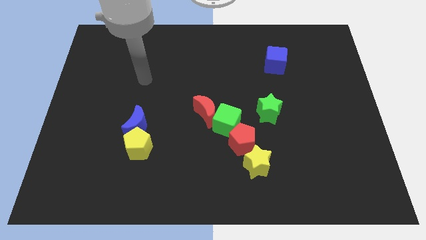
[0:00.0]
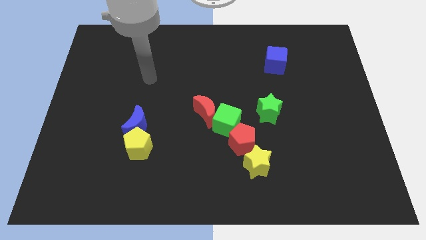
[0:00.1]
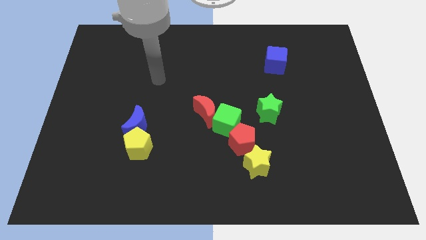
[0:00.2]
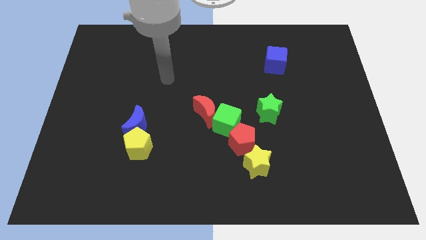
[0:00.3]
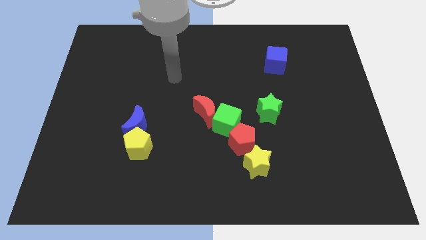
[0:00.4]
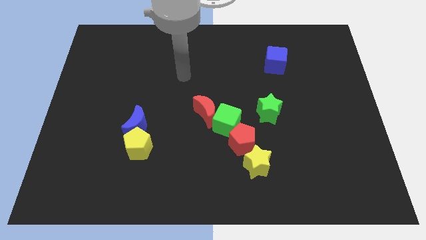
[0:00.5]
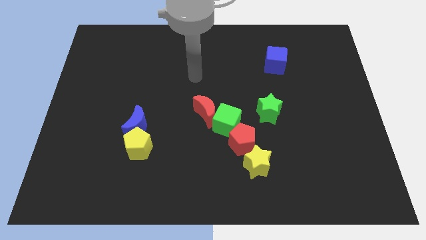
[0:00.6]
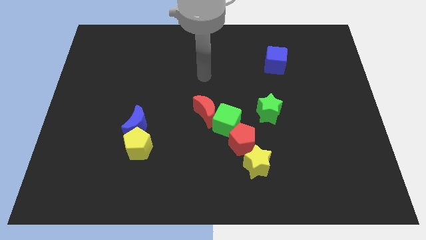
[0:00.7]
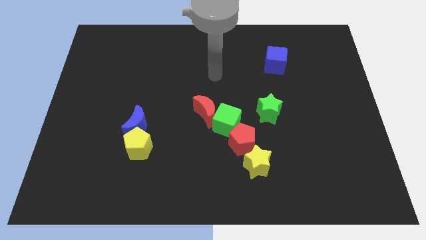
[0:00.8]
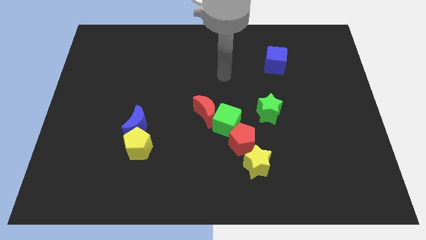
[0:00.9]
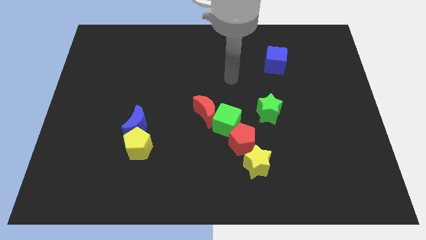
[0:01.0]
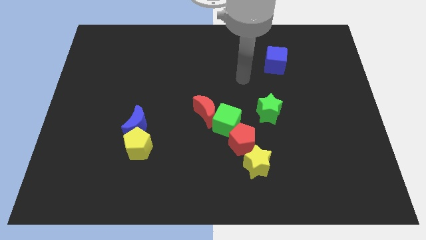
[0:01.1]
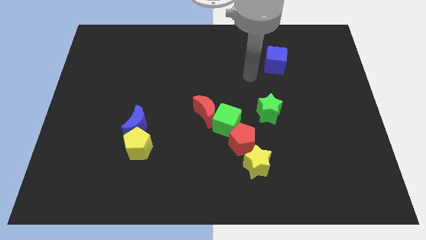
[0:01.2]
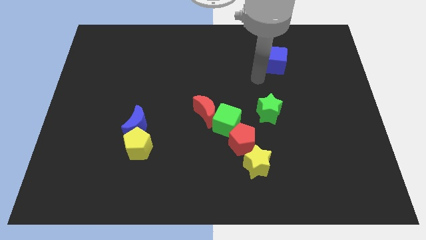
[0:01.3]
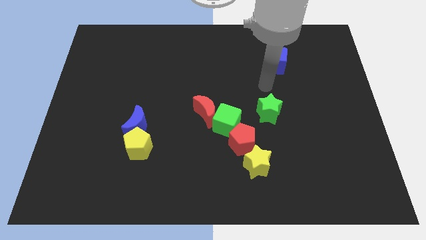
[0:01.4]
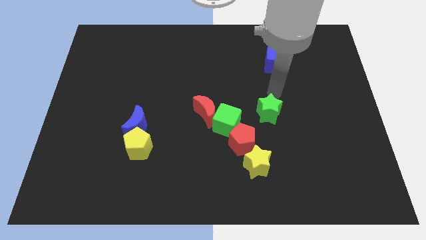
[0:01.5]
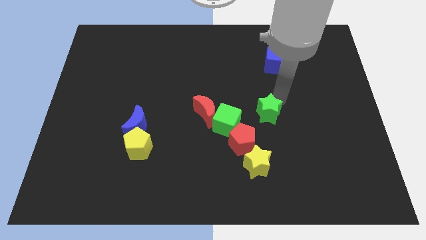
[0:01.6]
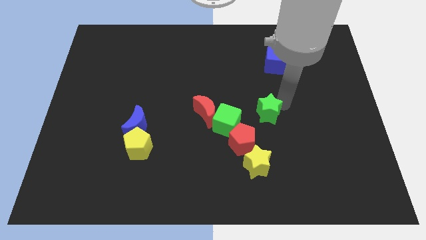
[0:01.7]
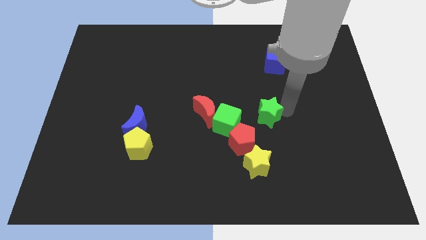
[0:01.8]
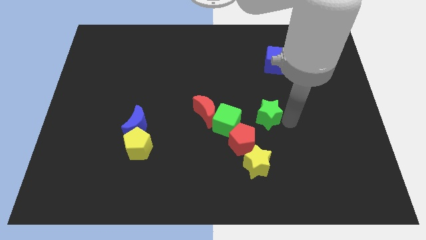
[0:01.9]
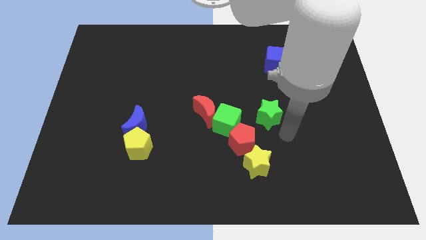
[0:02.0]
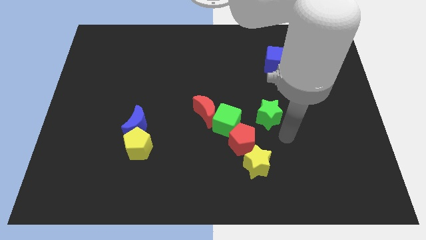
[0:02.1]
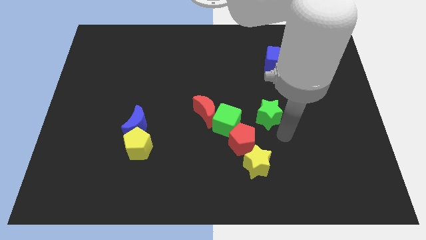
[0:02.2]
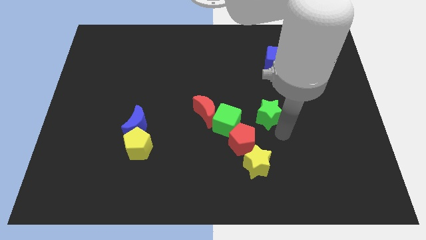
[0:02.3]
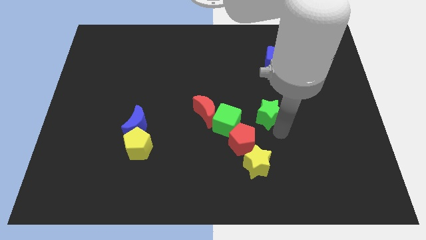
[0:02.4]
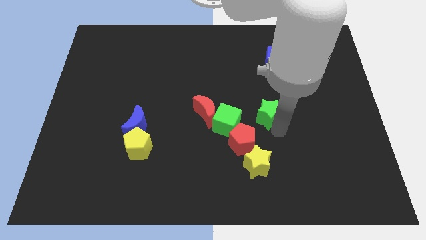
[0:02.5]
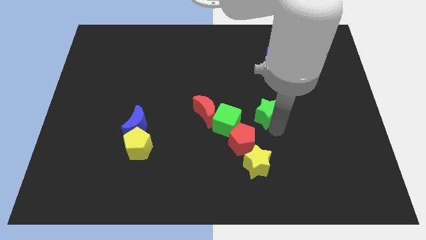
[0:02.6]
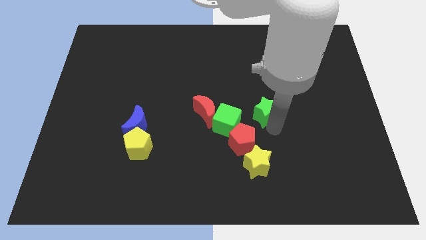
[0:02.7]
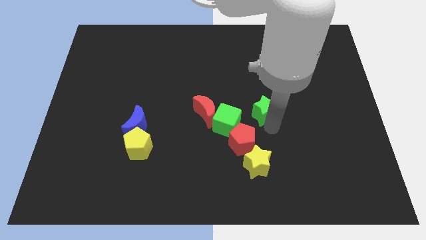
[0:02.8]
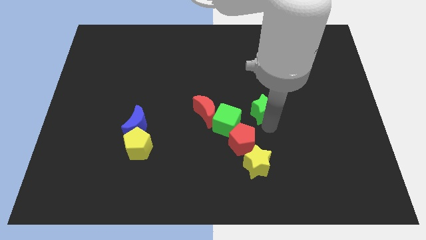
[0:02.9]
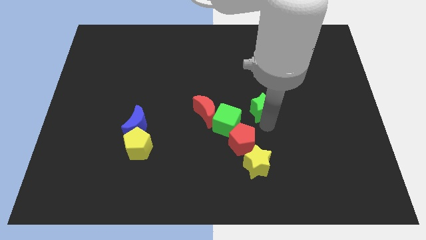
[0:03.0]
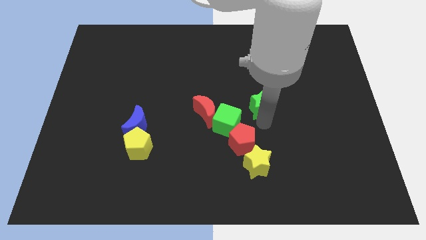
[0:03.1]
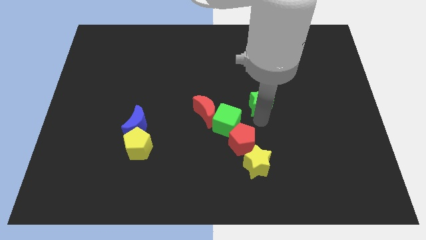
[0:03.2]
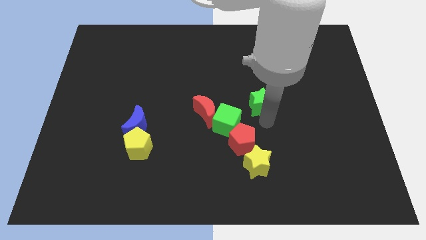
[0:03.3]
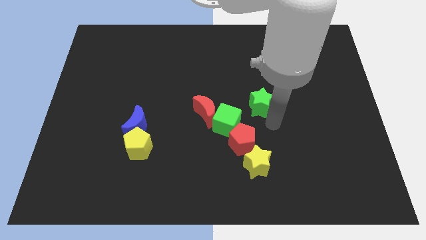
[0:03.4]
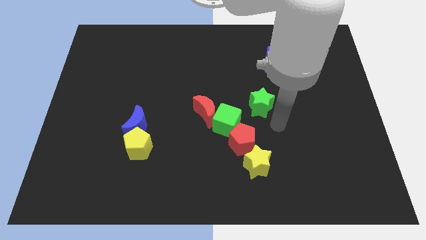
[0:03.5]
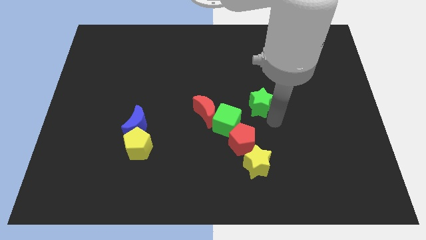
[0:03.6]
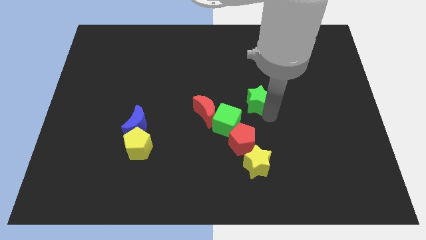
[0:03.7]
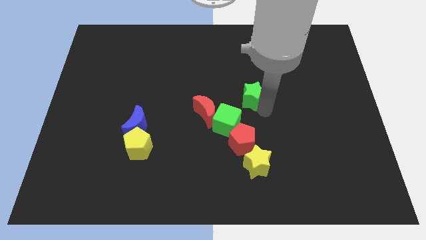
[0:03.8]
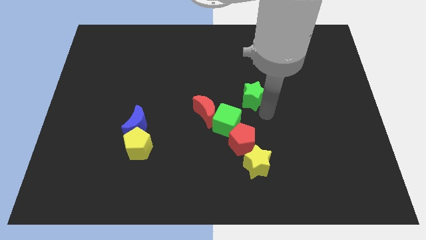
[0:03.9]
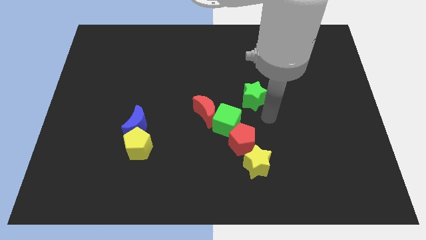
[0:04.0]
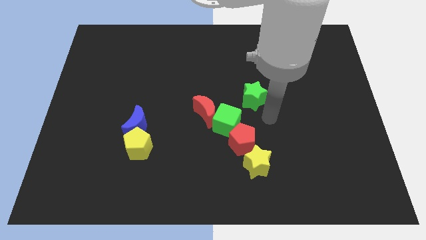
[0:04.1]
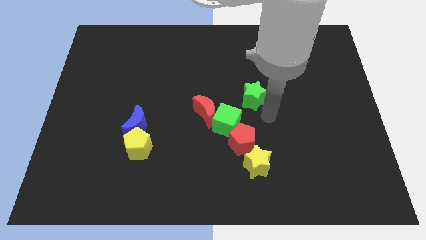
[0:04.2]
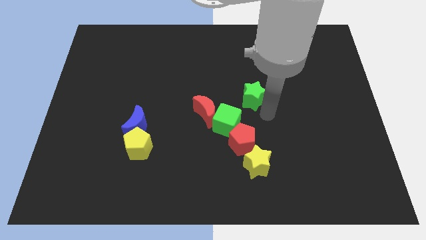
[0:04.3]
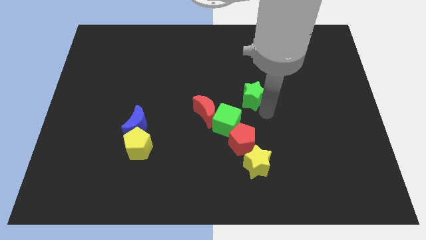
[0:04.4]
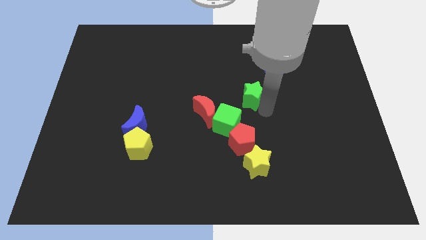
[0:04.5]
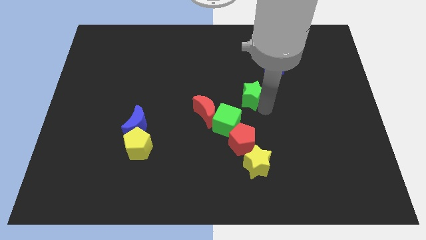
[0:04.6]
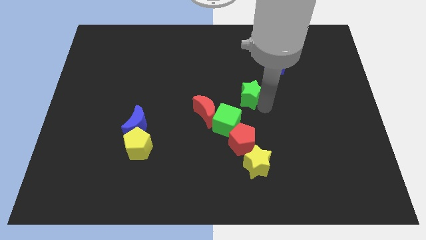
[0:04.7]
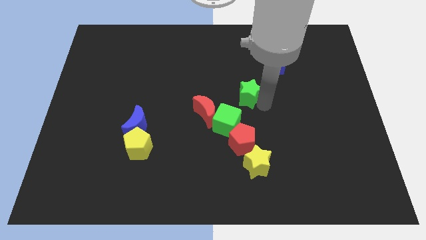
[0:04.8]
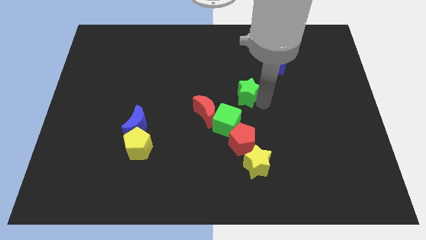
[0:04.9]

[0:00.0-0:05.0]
slide the green star slightly up and then to the left

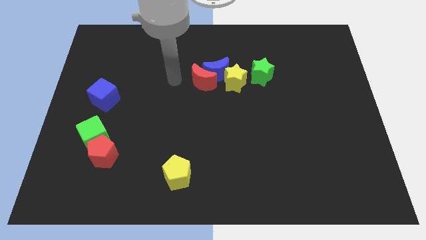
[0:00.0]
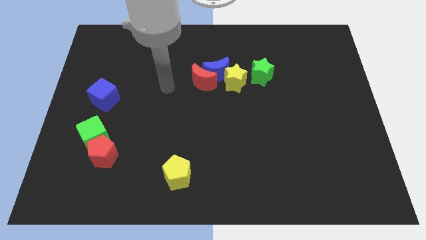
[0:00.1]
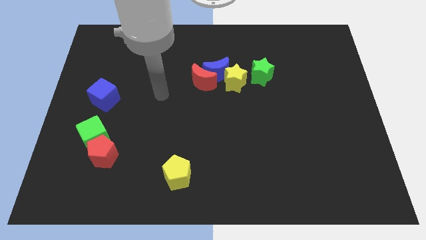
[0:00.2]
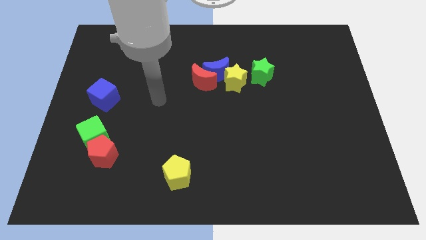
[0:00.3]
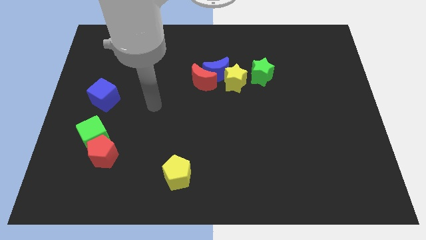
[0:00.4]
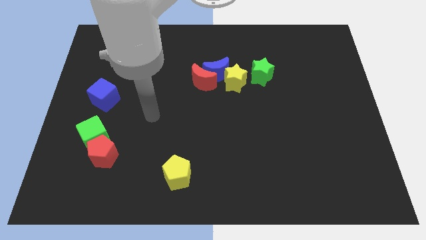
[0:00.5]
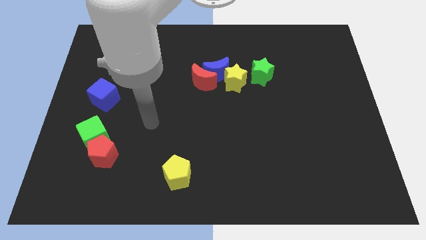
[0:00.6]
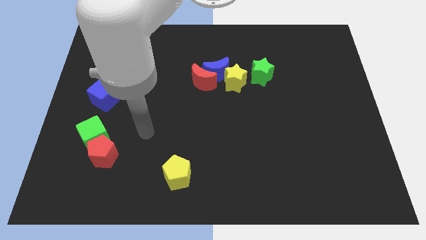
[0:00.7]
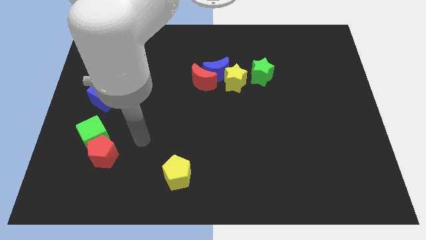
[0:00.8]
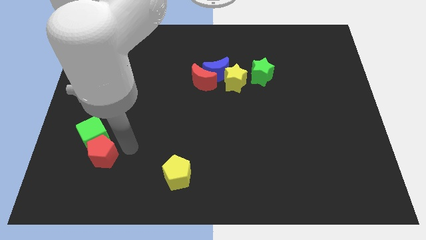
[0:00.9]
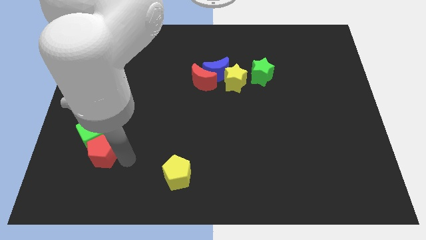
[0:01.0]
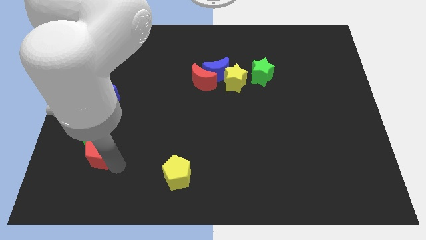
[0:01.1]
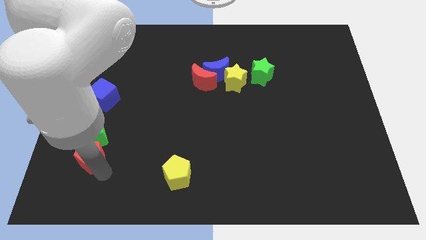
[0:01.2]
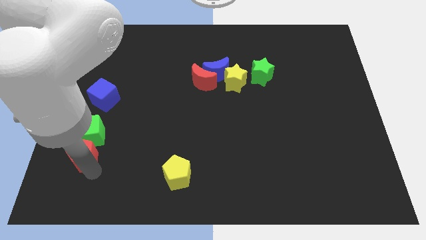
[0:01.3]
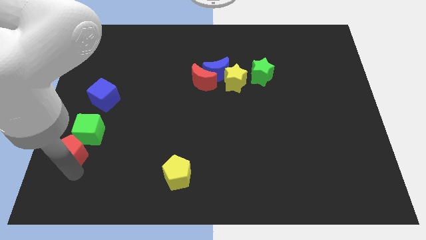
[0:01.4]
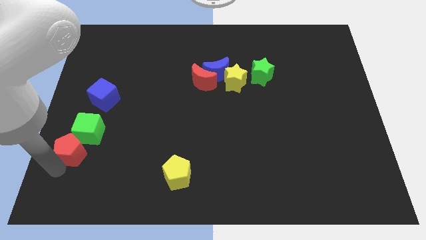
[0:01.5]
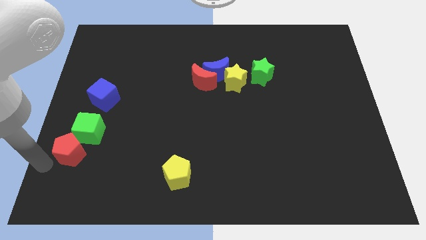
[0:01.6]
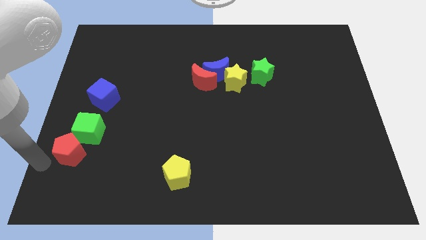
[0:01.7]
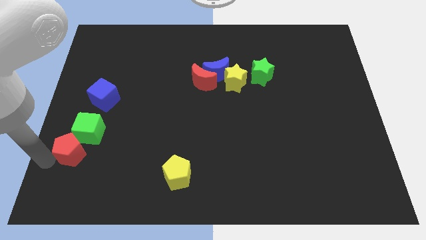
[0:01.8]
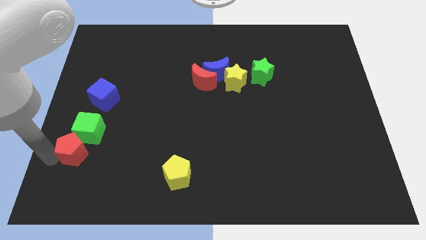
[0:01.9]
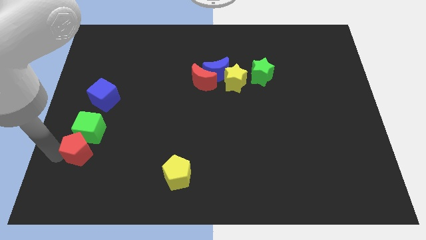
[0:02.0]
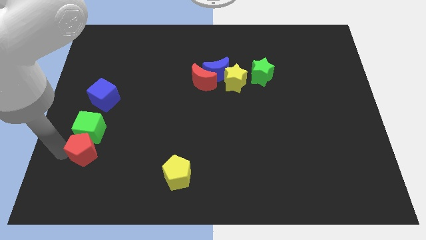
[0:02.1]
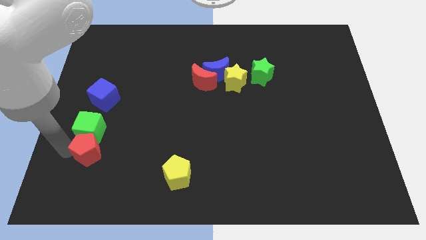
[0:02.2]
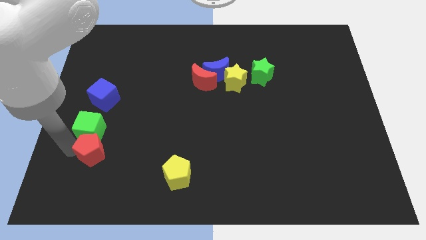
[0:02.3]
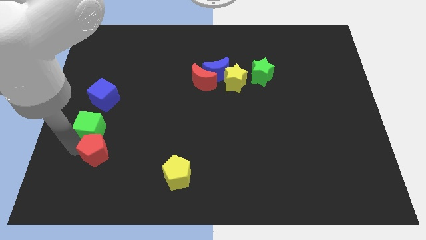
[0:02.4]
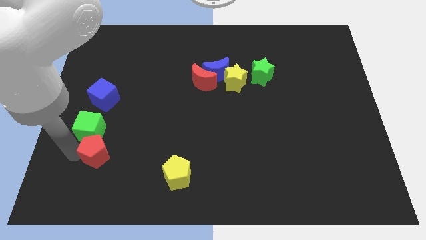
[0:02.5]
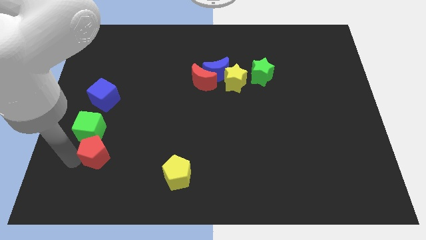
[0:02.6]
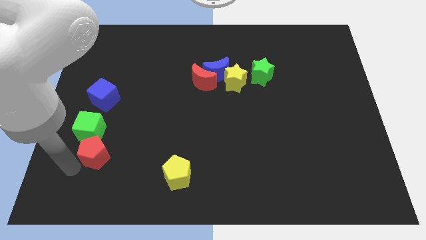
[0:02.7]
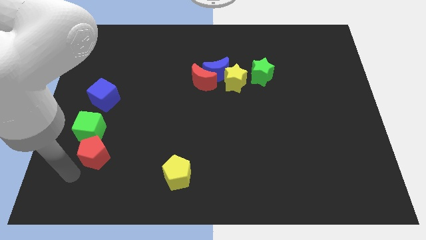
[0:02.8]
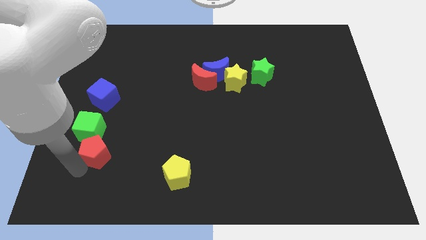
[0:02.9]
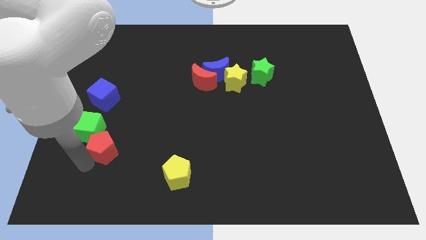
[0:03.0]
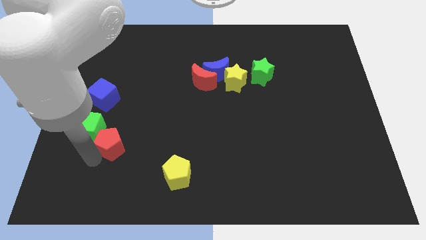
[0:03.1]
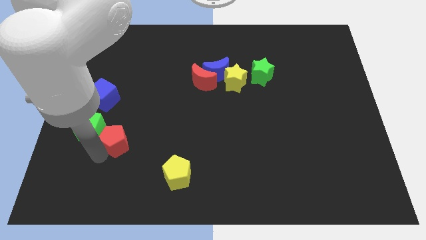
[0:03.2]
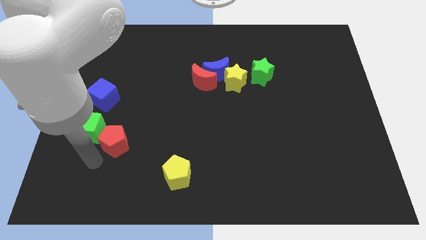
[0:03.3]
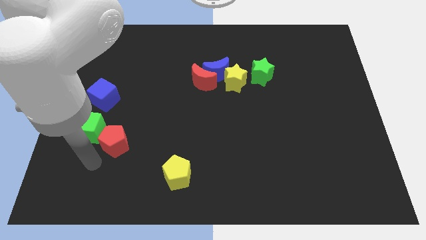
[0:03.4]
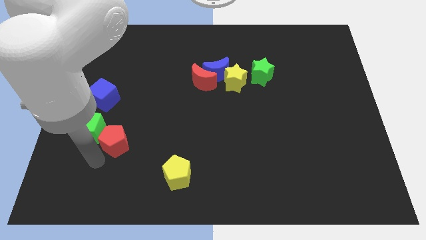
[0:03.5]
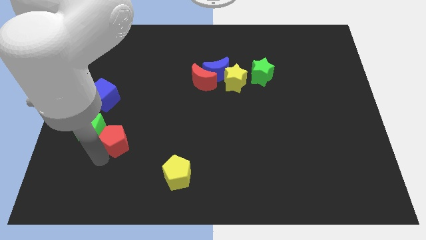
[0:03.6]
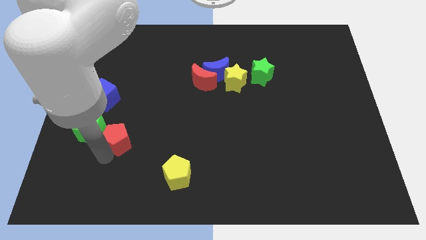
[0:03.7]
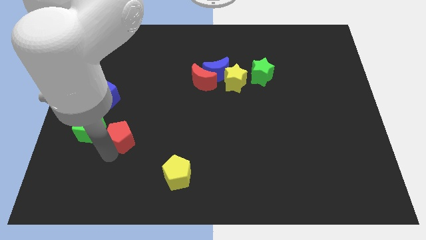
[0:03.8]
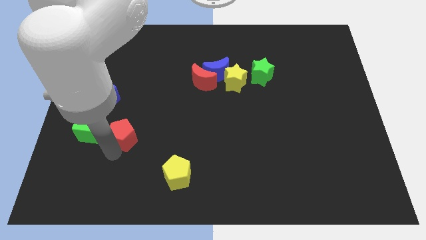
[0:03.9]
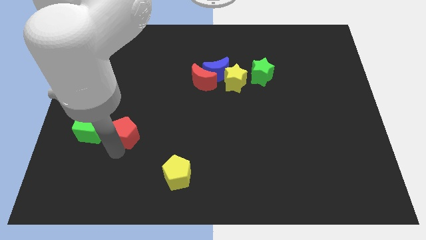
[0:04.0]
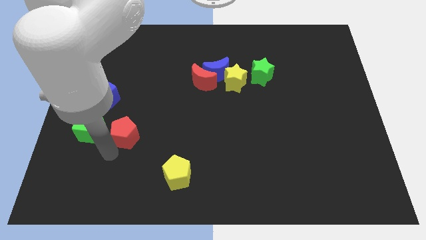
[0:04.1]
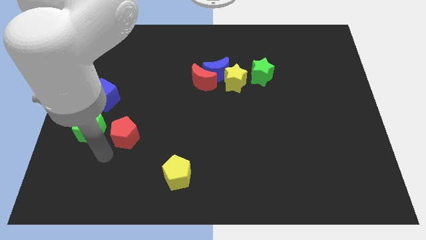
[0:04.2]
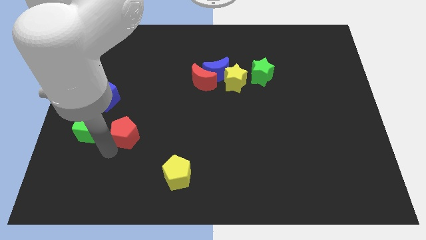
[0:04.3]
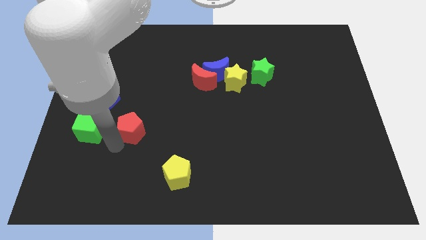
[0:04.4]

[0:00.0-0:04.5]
slightly push the red pentagon upwards and to the right
